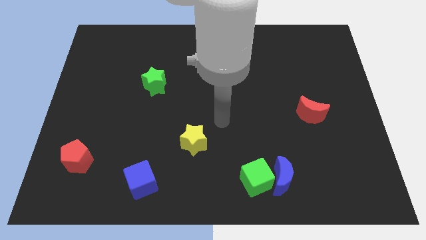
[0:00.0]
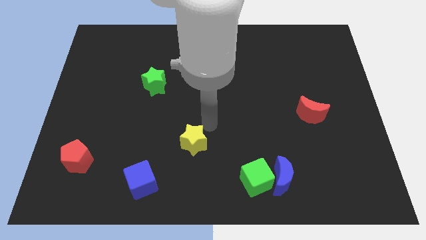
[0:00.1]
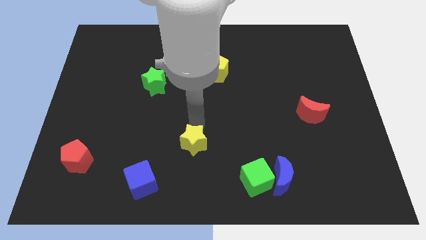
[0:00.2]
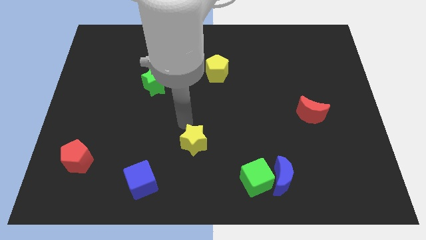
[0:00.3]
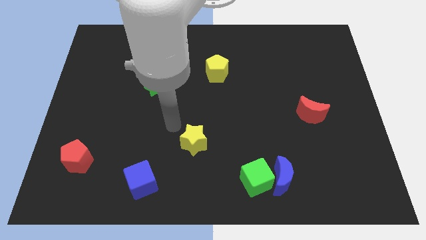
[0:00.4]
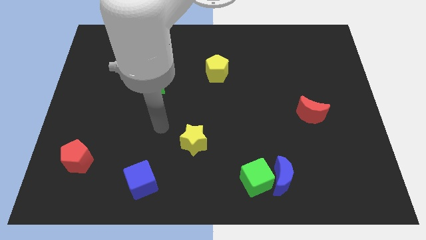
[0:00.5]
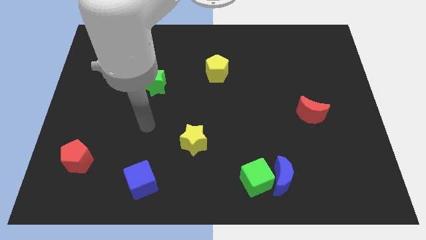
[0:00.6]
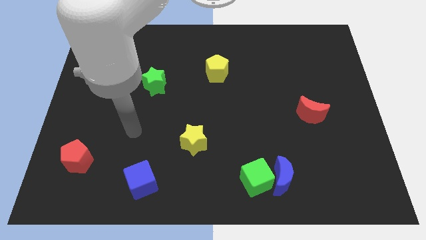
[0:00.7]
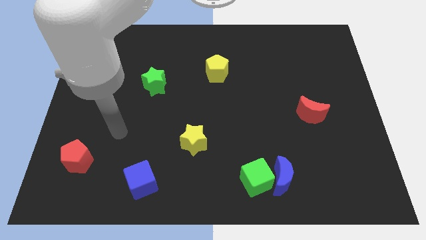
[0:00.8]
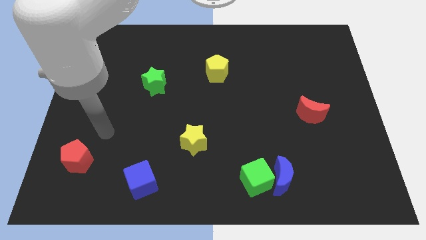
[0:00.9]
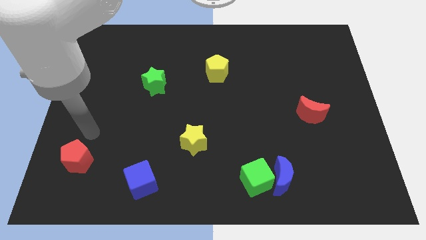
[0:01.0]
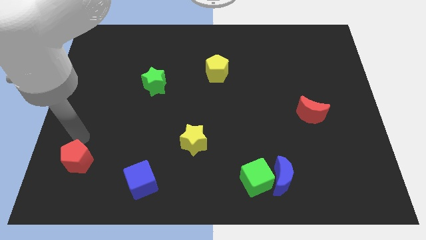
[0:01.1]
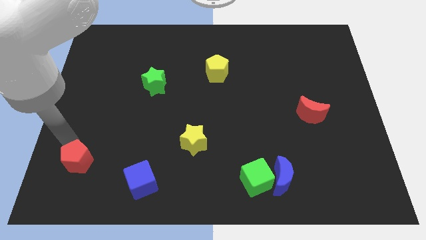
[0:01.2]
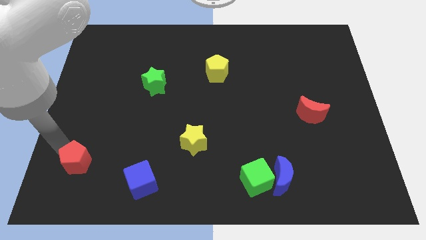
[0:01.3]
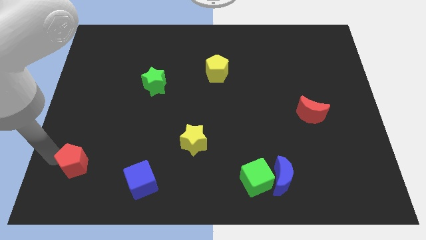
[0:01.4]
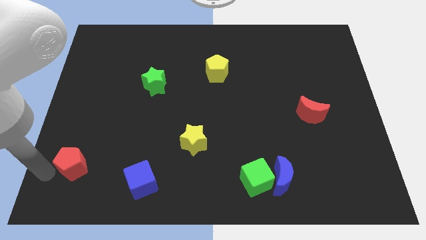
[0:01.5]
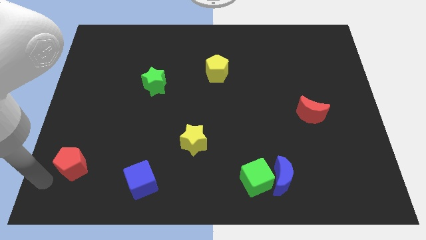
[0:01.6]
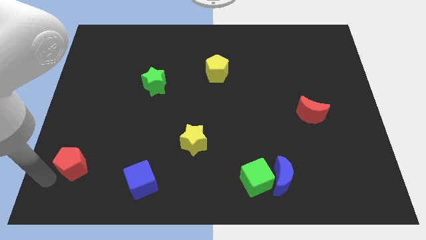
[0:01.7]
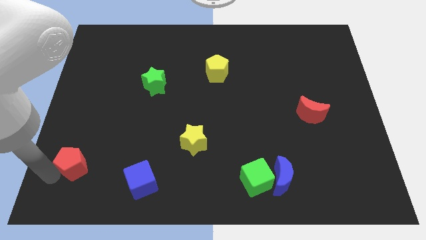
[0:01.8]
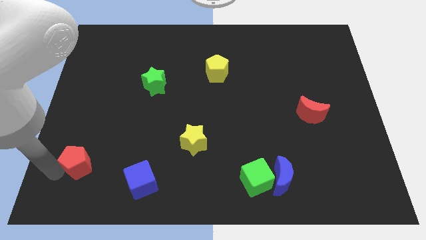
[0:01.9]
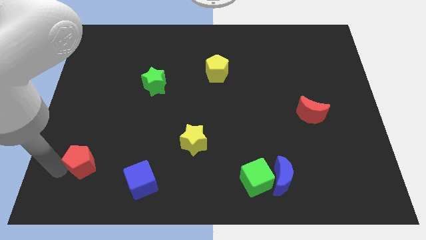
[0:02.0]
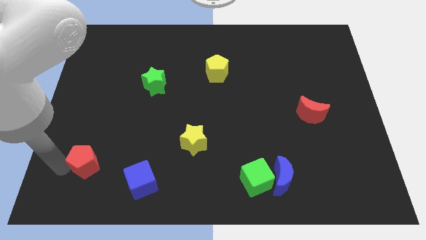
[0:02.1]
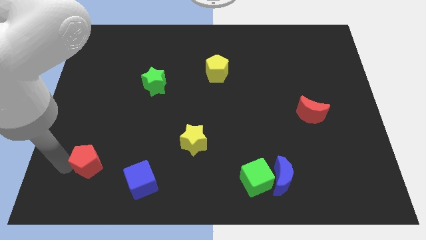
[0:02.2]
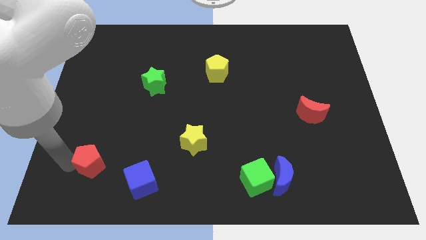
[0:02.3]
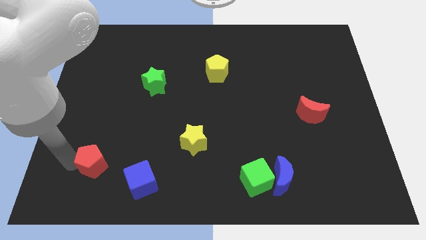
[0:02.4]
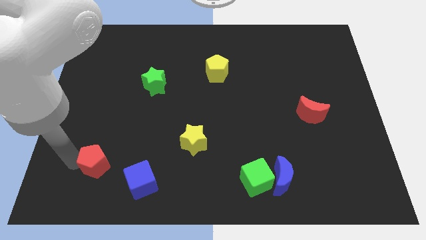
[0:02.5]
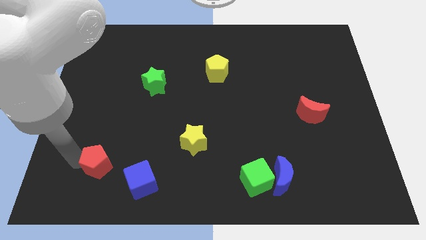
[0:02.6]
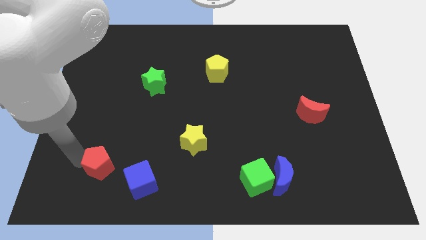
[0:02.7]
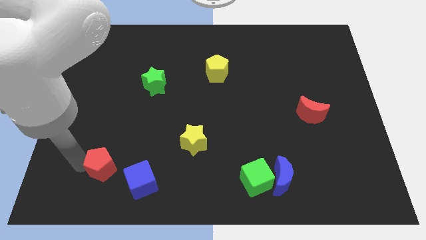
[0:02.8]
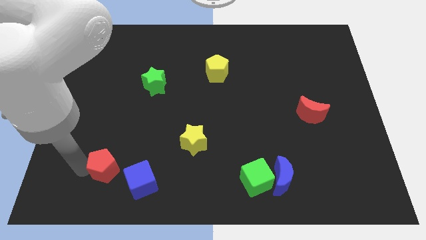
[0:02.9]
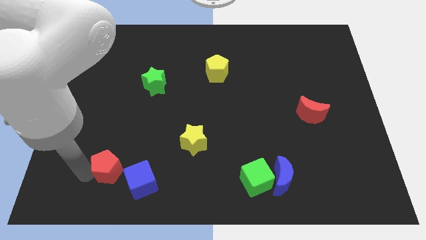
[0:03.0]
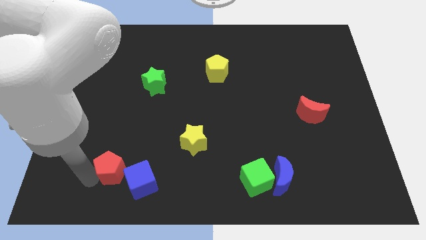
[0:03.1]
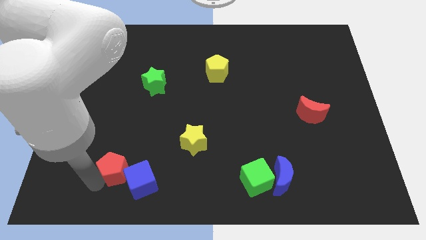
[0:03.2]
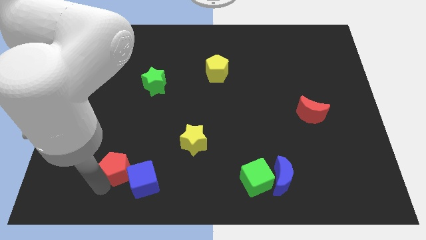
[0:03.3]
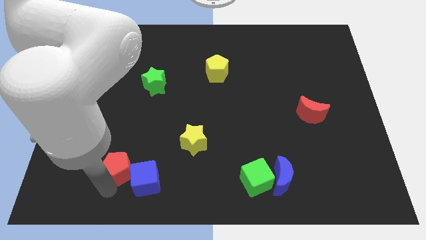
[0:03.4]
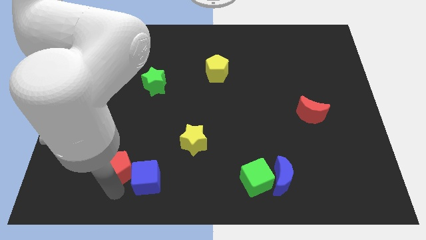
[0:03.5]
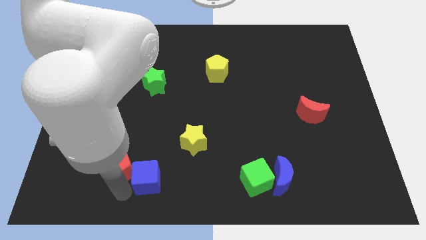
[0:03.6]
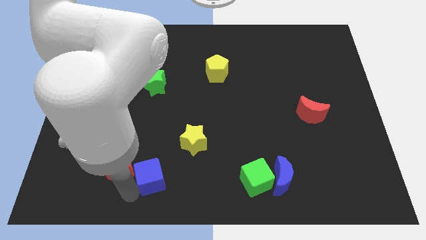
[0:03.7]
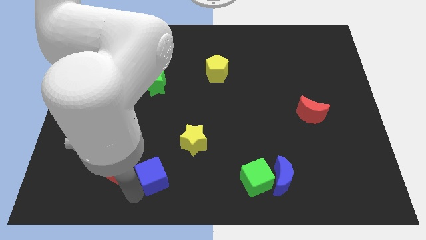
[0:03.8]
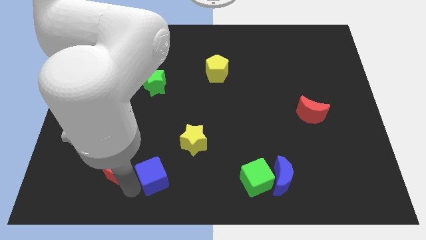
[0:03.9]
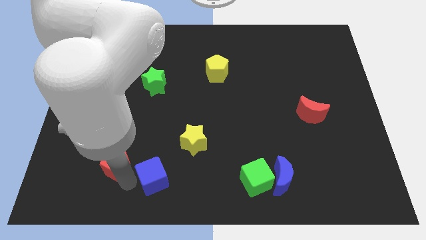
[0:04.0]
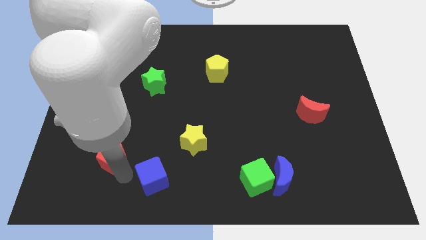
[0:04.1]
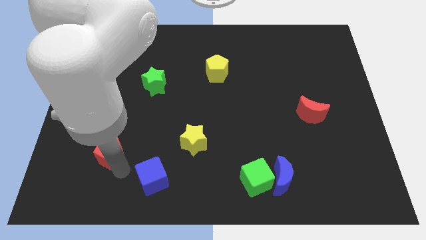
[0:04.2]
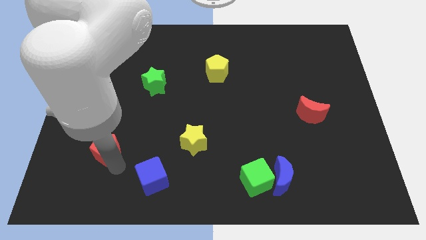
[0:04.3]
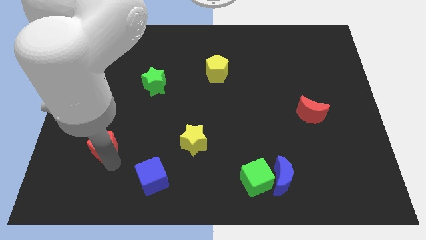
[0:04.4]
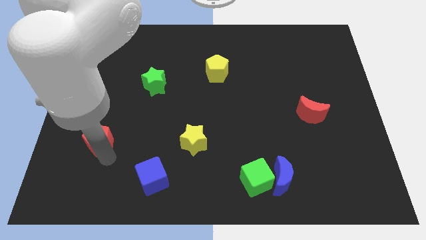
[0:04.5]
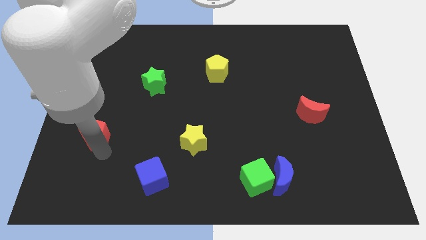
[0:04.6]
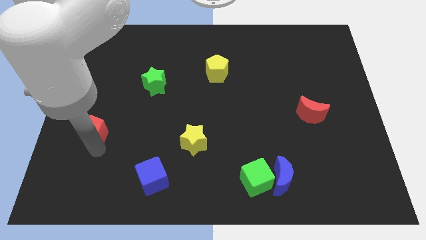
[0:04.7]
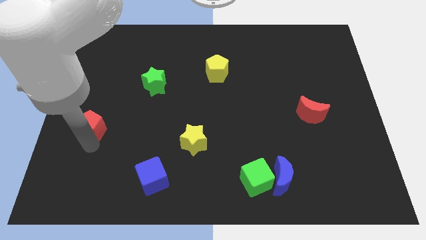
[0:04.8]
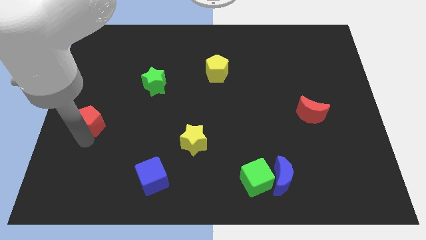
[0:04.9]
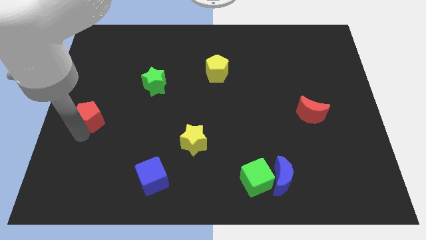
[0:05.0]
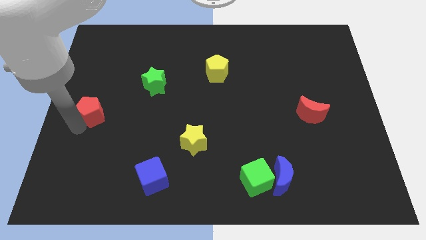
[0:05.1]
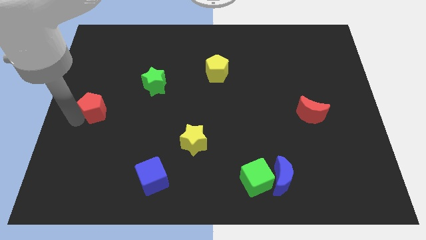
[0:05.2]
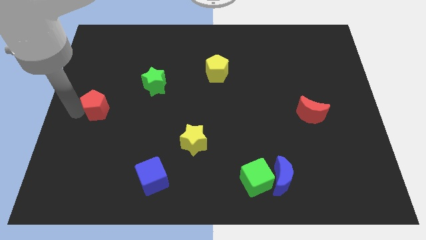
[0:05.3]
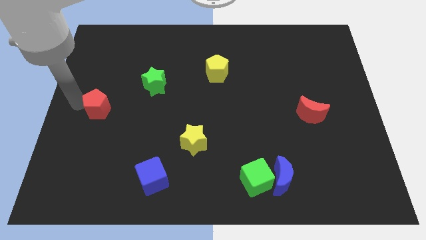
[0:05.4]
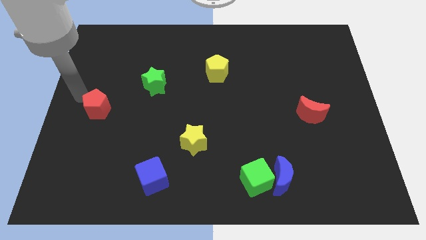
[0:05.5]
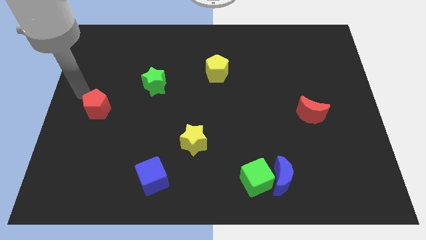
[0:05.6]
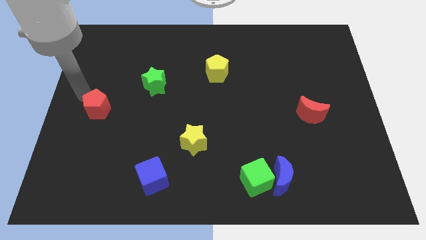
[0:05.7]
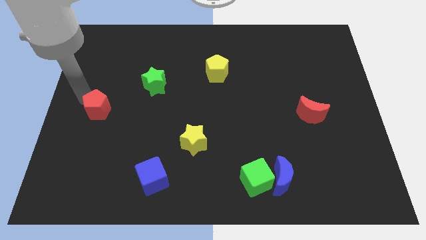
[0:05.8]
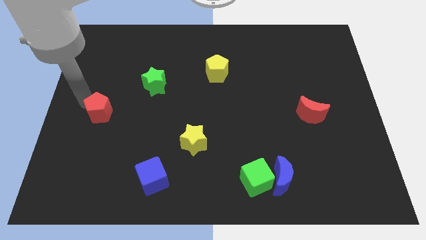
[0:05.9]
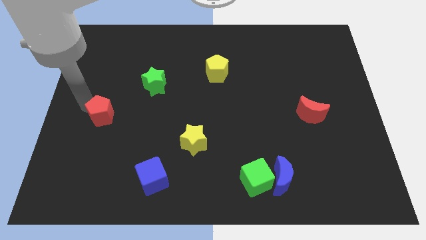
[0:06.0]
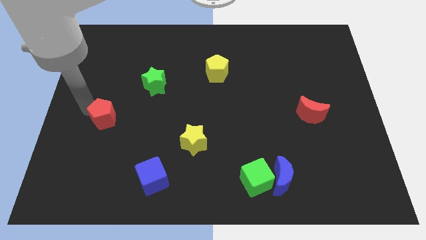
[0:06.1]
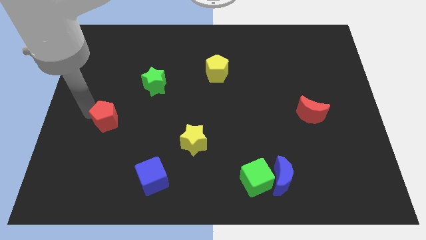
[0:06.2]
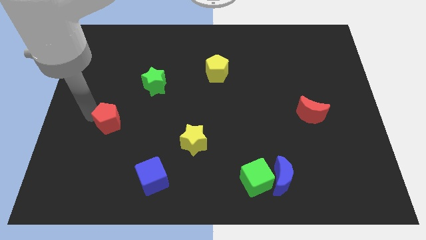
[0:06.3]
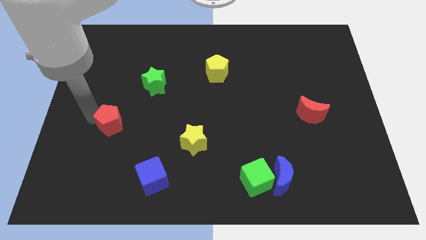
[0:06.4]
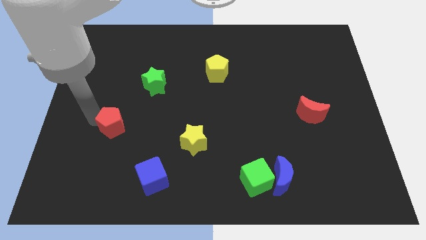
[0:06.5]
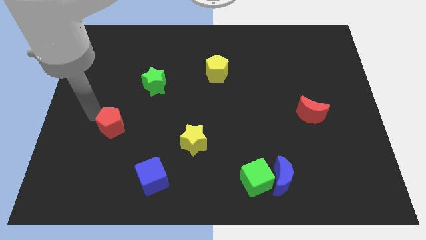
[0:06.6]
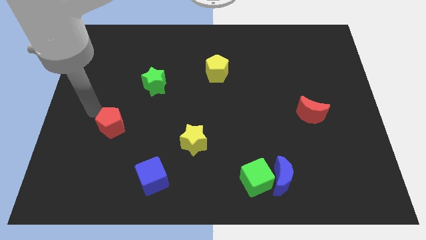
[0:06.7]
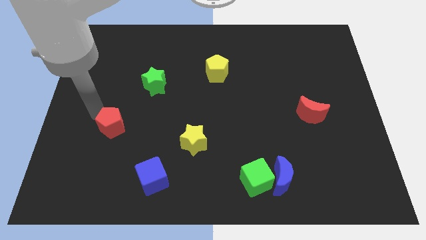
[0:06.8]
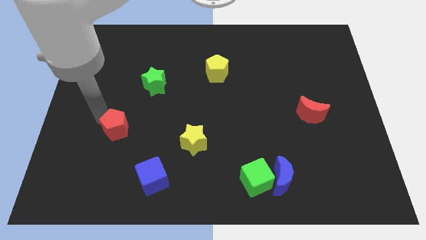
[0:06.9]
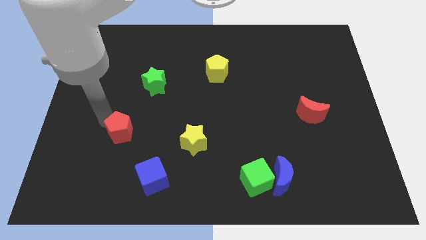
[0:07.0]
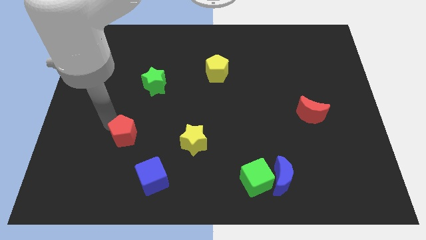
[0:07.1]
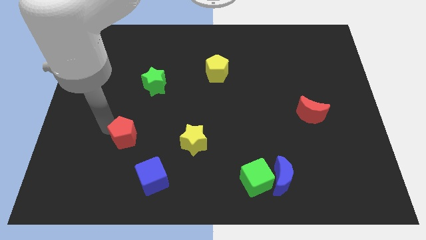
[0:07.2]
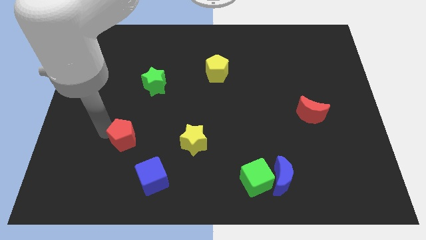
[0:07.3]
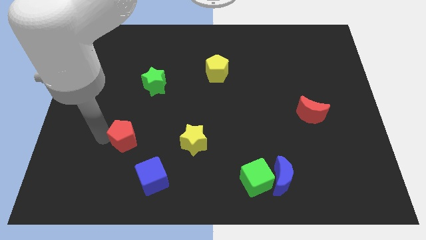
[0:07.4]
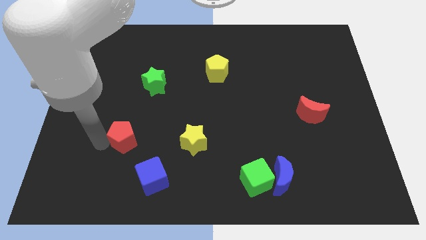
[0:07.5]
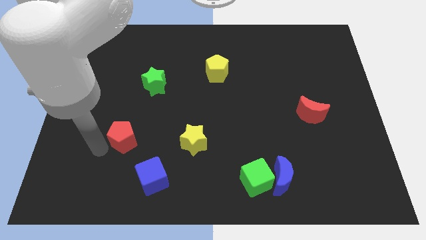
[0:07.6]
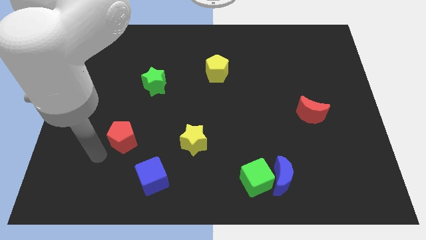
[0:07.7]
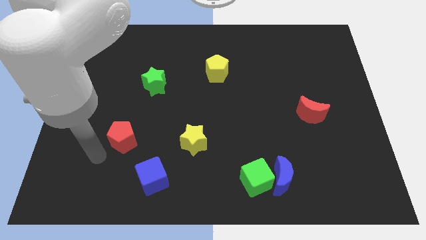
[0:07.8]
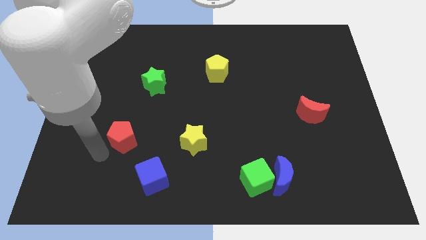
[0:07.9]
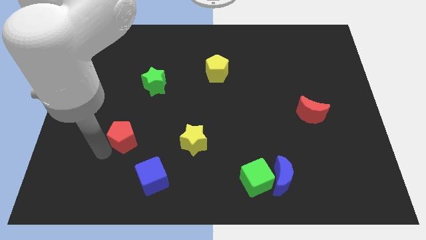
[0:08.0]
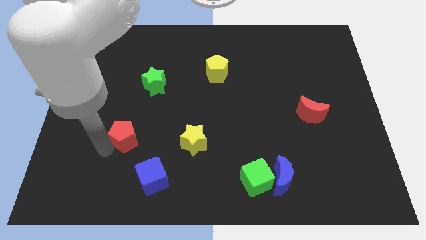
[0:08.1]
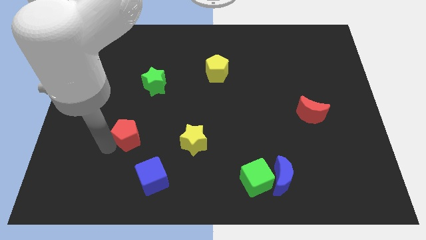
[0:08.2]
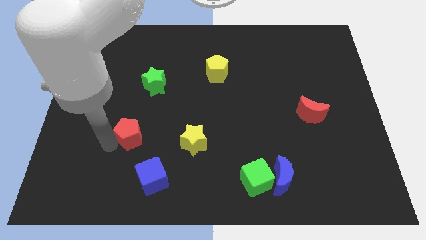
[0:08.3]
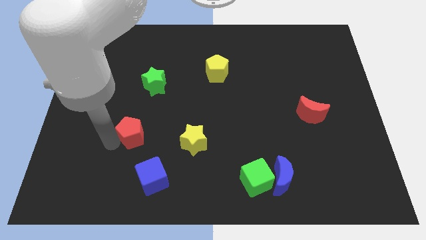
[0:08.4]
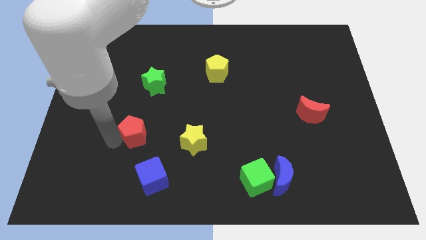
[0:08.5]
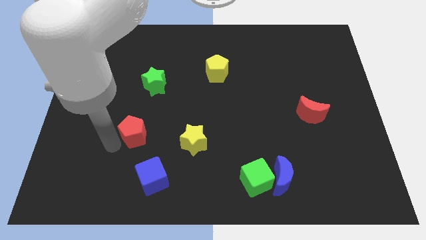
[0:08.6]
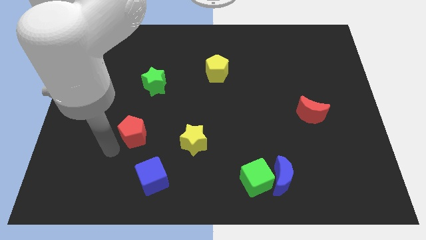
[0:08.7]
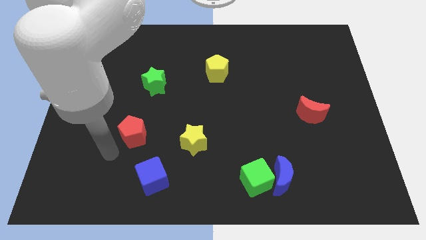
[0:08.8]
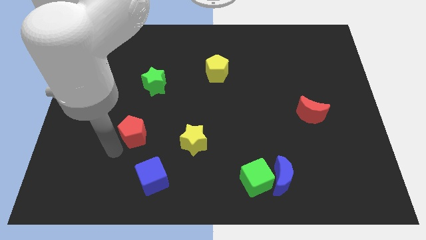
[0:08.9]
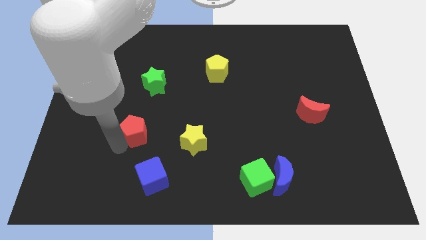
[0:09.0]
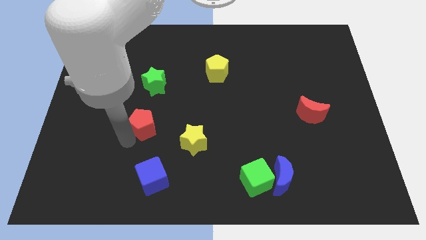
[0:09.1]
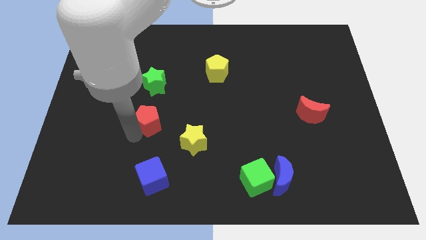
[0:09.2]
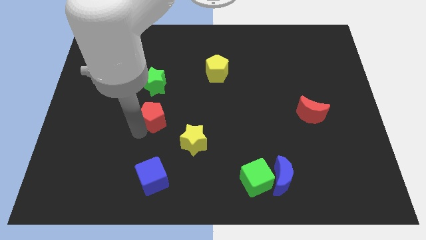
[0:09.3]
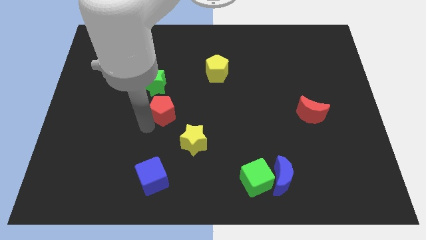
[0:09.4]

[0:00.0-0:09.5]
push the red pentagon up and right
